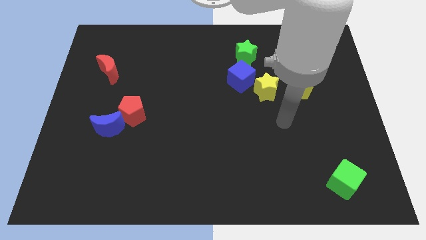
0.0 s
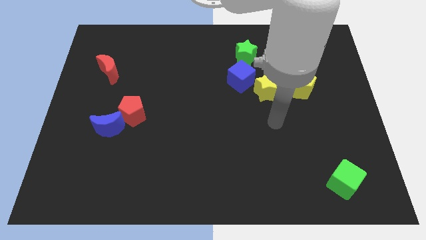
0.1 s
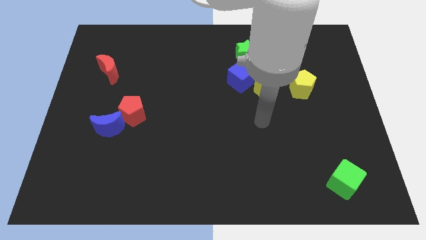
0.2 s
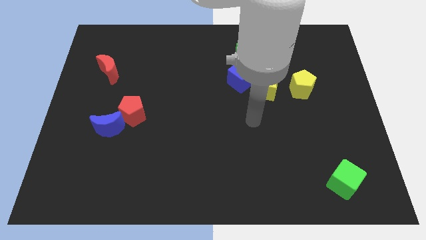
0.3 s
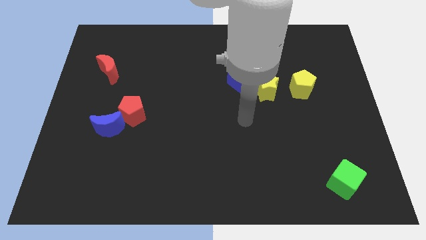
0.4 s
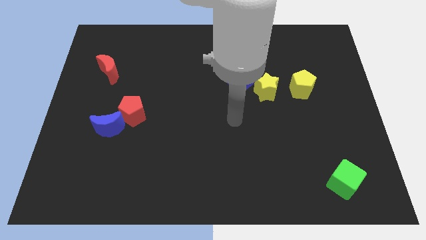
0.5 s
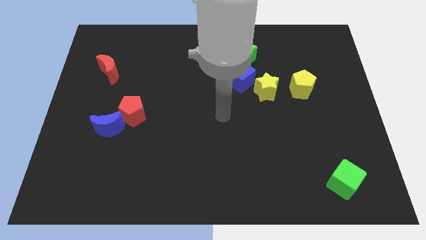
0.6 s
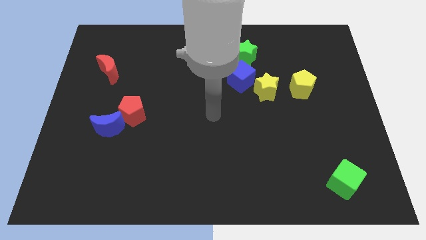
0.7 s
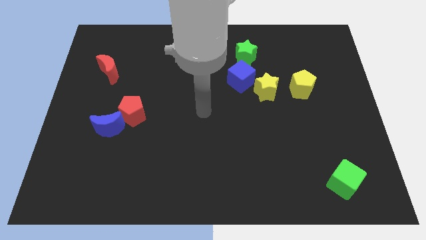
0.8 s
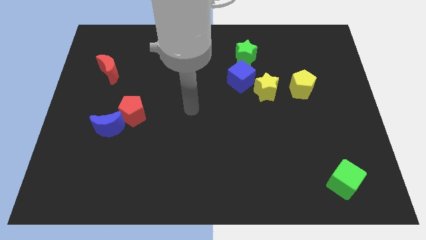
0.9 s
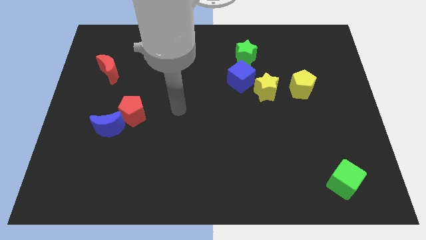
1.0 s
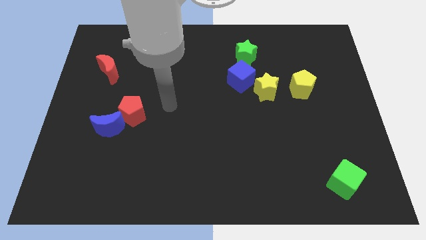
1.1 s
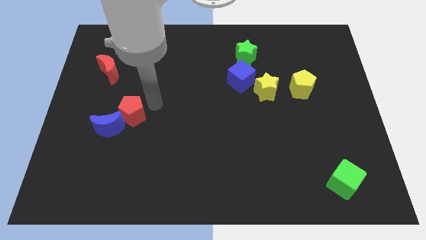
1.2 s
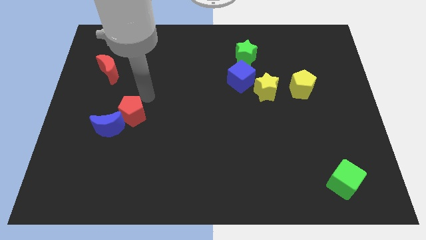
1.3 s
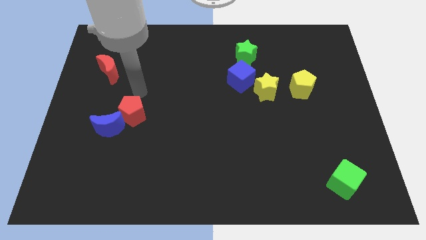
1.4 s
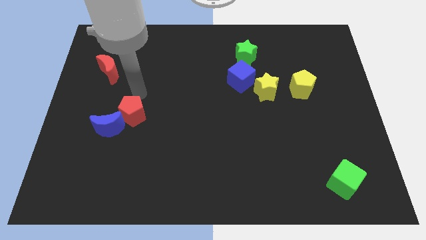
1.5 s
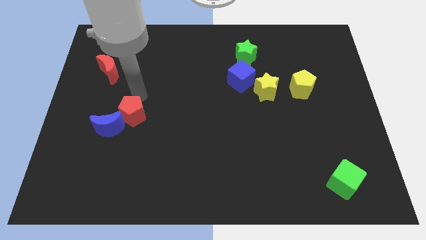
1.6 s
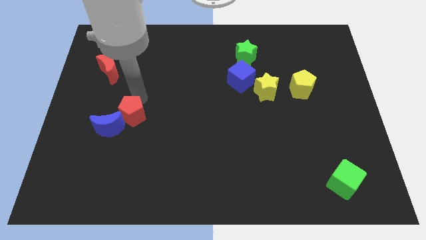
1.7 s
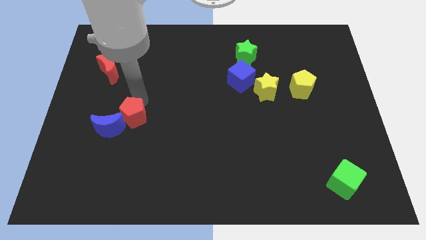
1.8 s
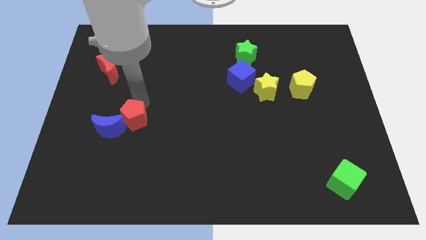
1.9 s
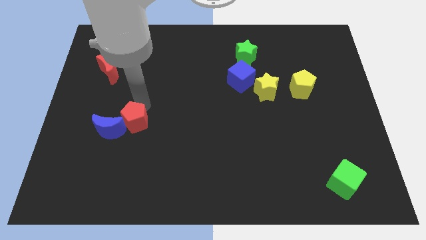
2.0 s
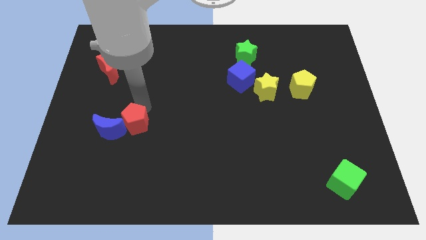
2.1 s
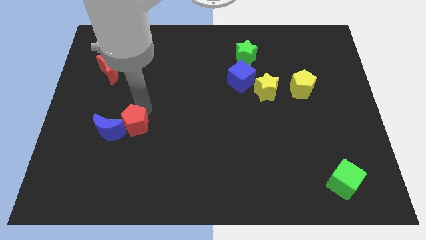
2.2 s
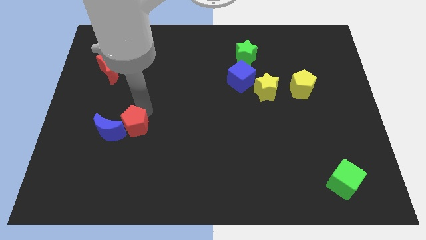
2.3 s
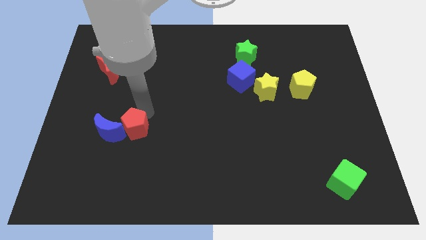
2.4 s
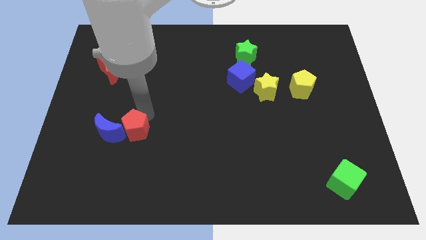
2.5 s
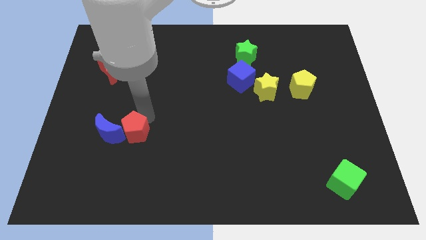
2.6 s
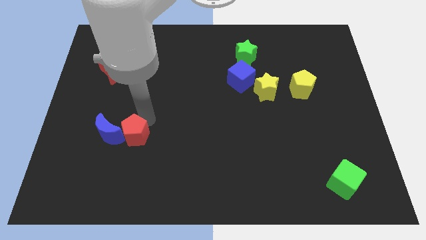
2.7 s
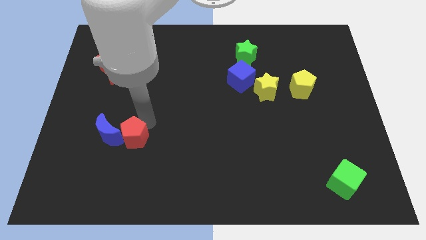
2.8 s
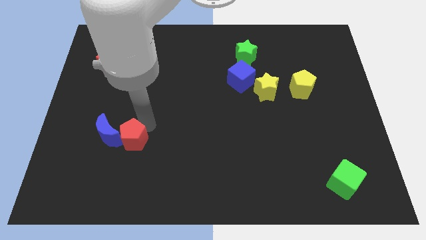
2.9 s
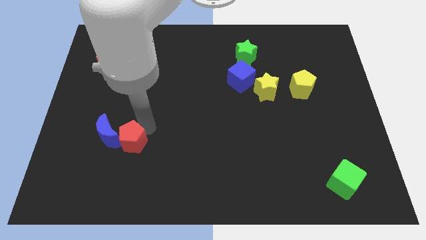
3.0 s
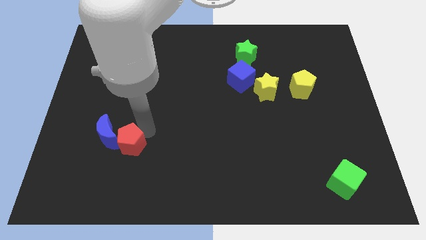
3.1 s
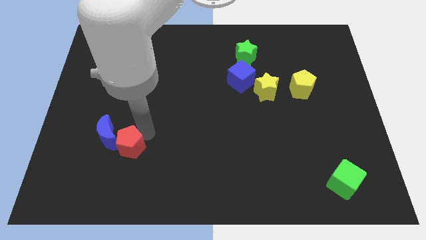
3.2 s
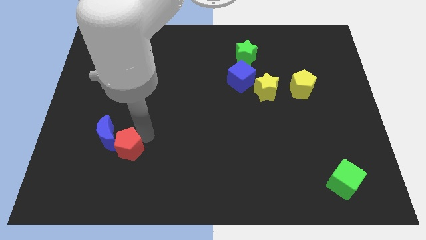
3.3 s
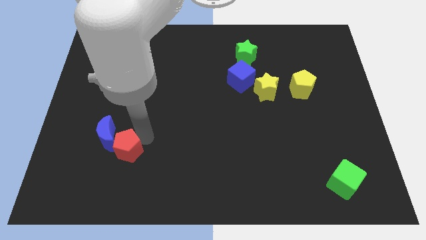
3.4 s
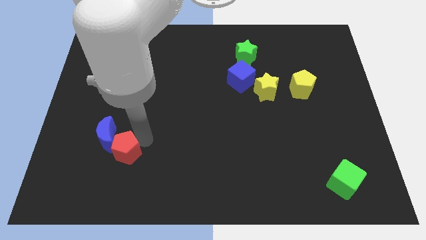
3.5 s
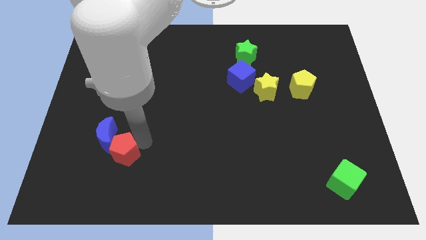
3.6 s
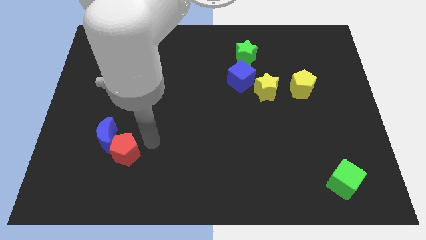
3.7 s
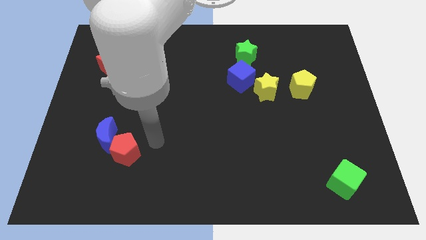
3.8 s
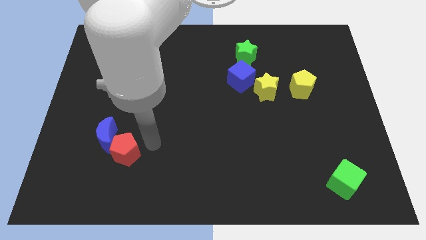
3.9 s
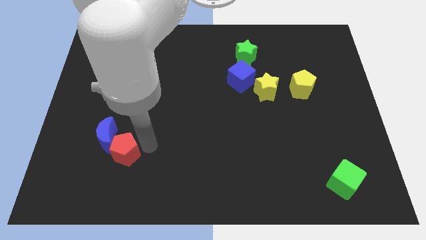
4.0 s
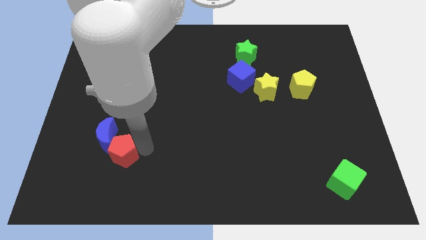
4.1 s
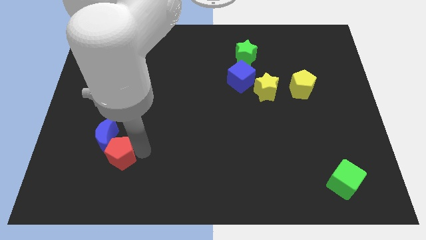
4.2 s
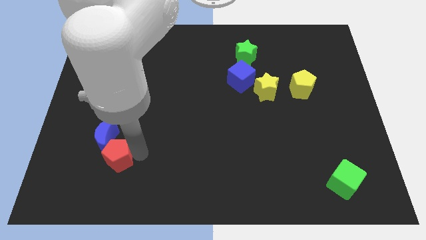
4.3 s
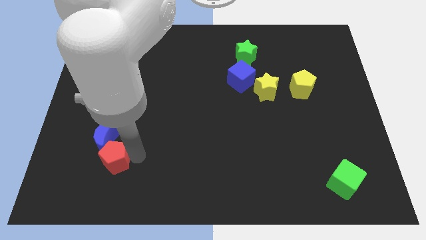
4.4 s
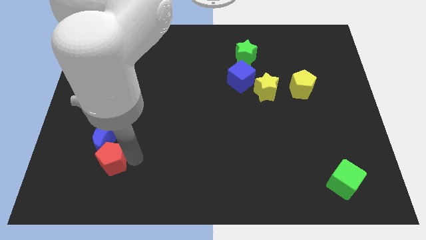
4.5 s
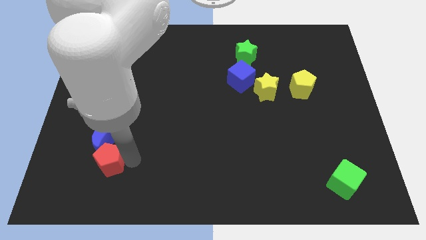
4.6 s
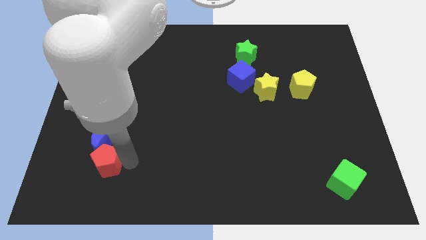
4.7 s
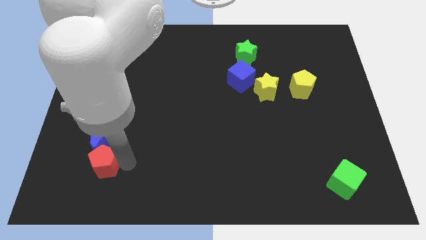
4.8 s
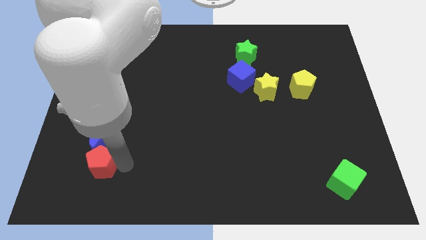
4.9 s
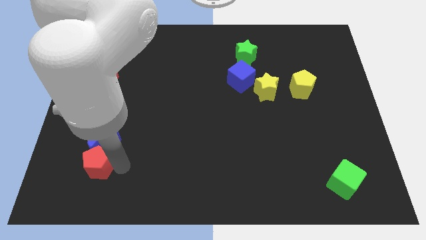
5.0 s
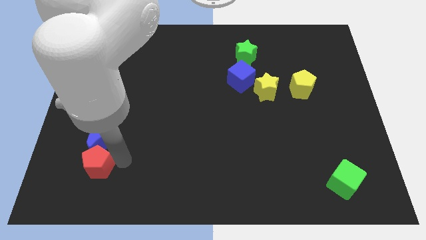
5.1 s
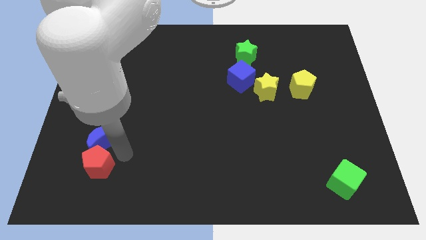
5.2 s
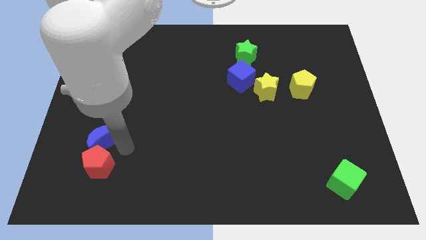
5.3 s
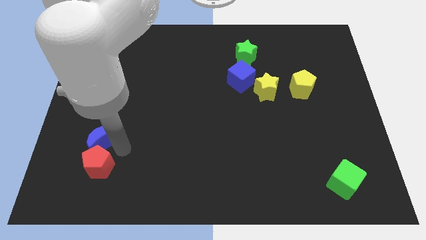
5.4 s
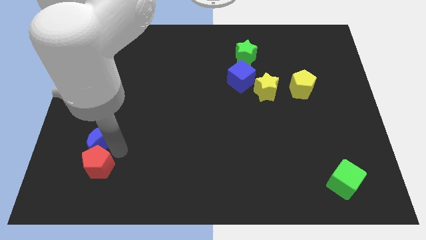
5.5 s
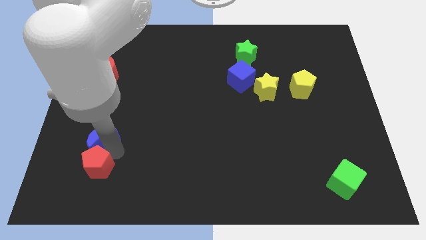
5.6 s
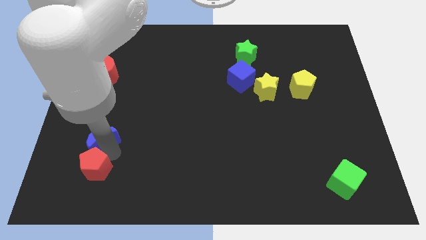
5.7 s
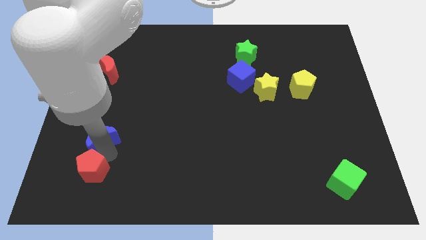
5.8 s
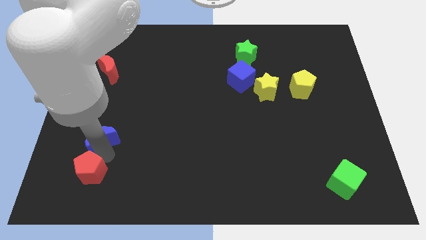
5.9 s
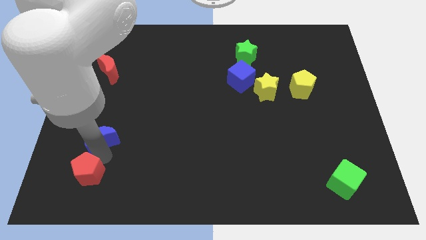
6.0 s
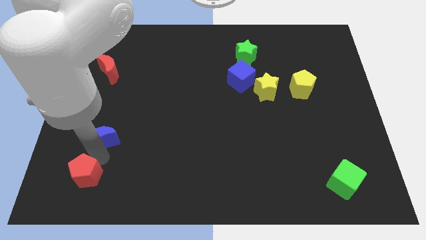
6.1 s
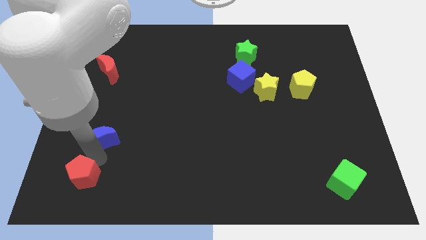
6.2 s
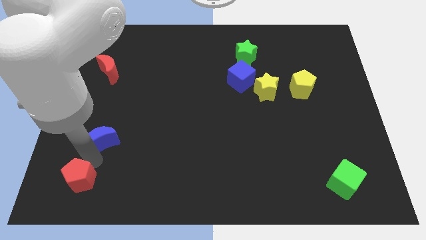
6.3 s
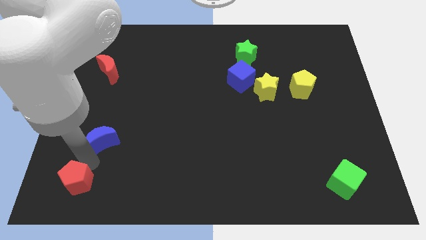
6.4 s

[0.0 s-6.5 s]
move the red pentagon to the bottom left of the board
